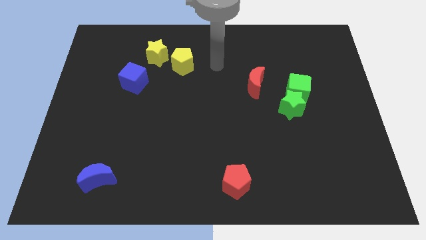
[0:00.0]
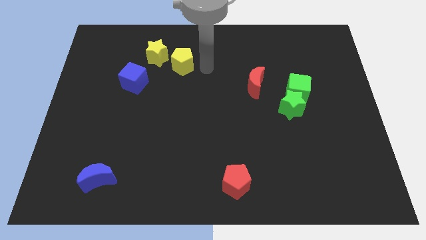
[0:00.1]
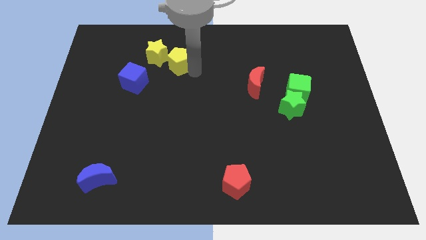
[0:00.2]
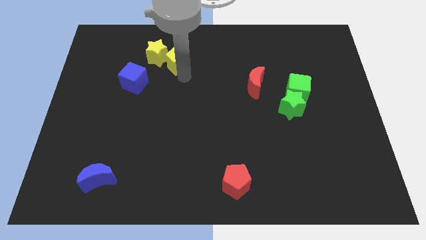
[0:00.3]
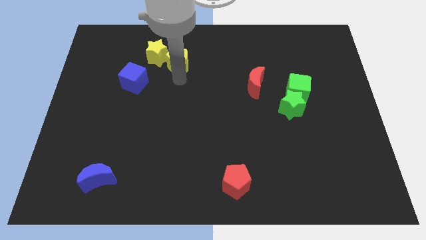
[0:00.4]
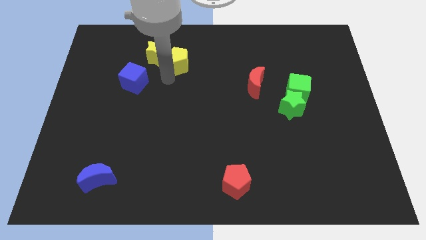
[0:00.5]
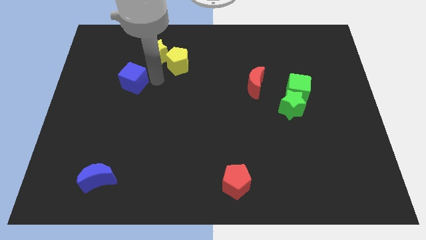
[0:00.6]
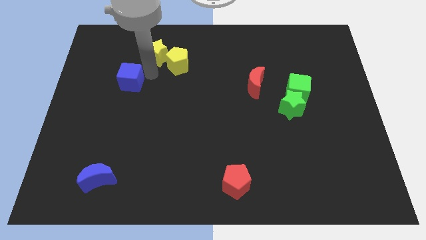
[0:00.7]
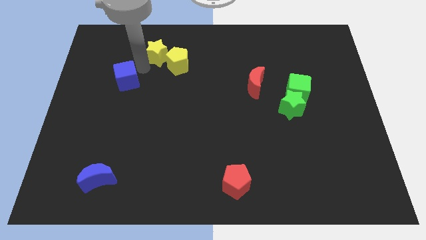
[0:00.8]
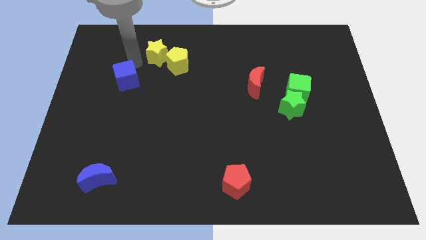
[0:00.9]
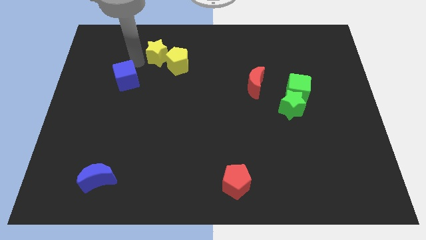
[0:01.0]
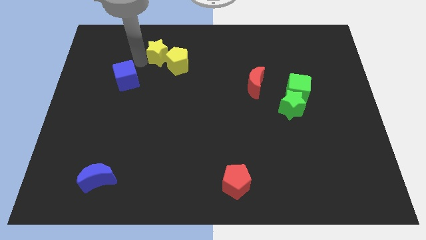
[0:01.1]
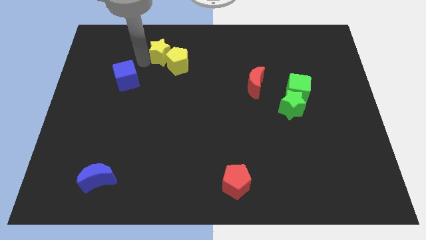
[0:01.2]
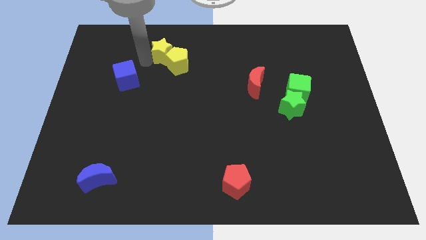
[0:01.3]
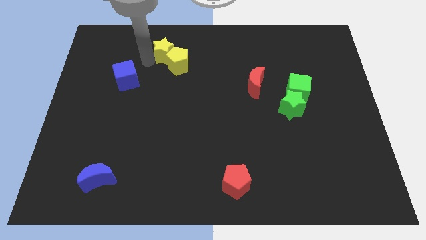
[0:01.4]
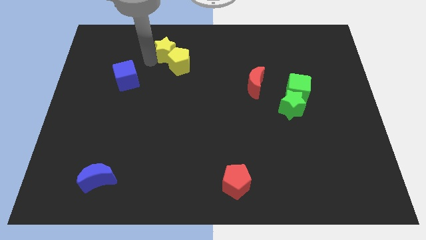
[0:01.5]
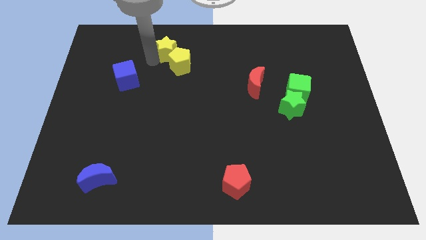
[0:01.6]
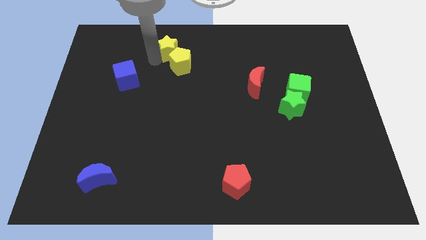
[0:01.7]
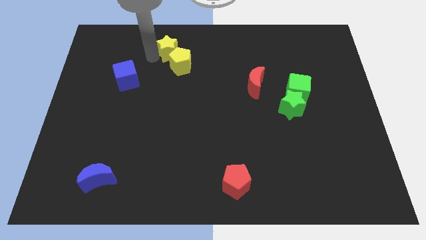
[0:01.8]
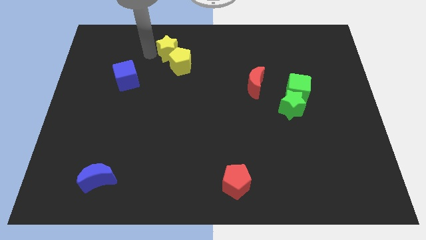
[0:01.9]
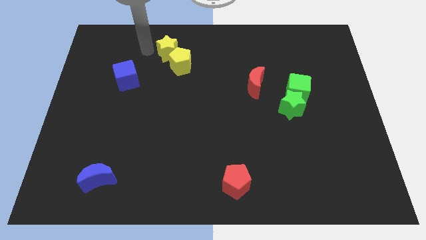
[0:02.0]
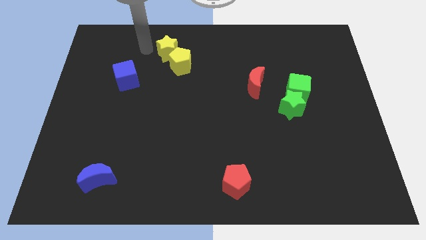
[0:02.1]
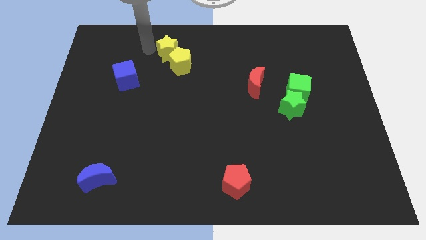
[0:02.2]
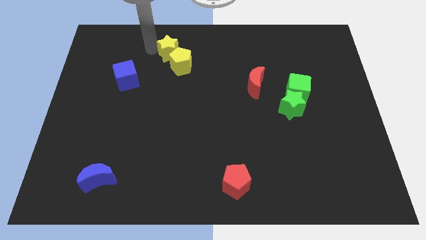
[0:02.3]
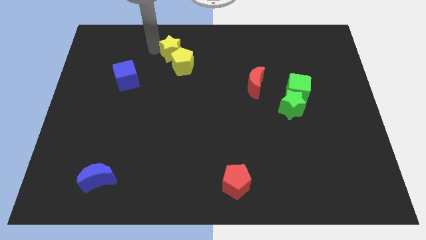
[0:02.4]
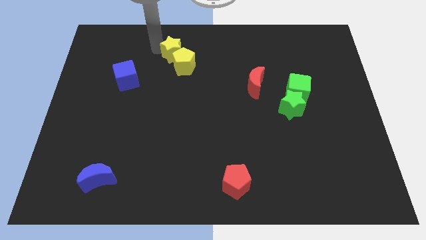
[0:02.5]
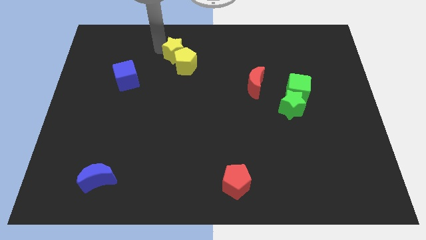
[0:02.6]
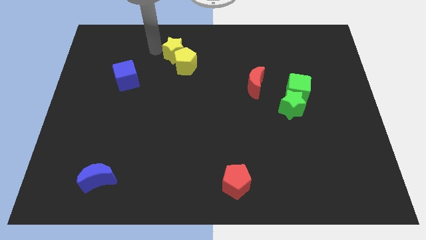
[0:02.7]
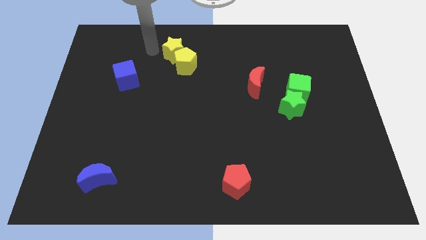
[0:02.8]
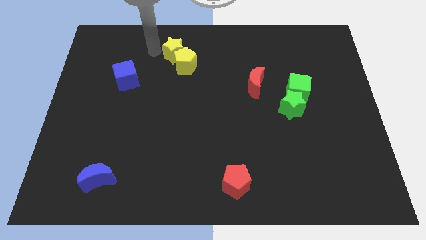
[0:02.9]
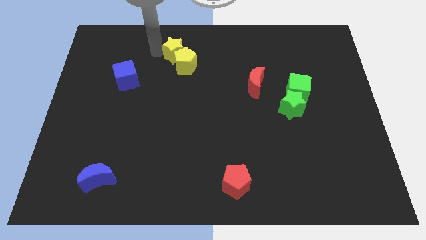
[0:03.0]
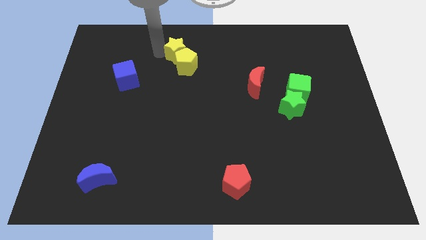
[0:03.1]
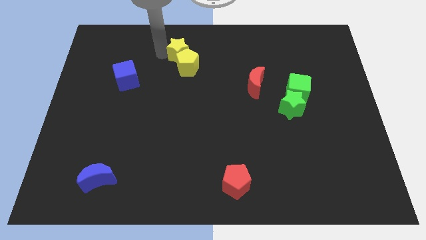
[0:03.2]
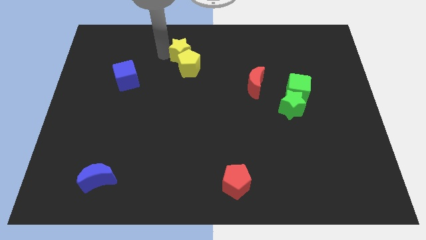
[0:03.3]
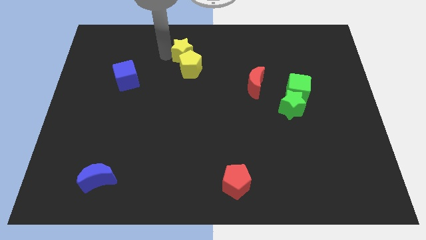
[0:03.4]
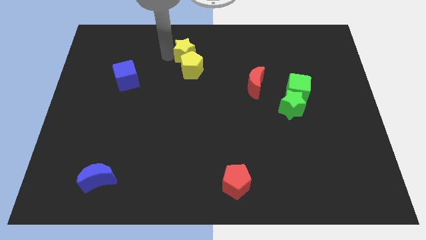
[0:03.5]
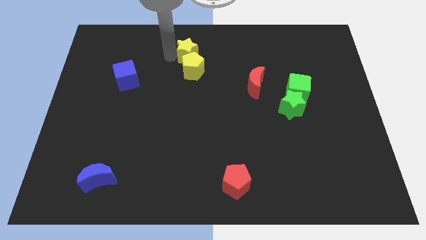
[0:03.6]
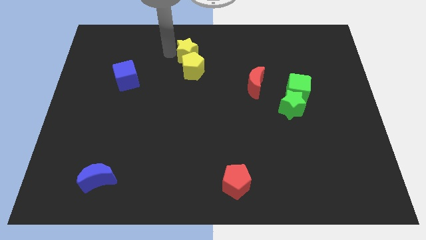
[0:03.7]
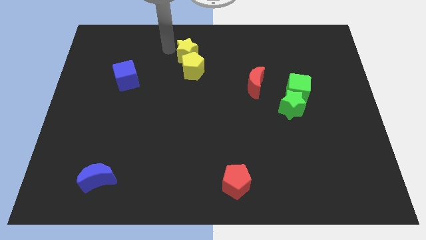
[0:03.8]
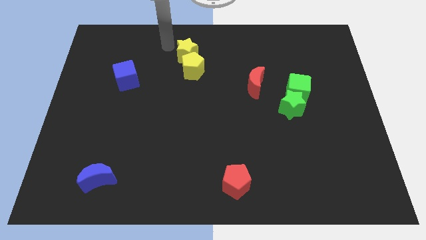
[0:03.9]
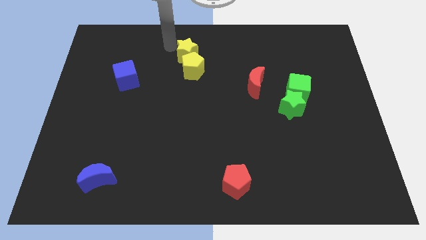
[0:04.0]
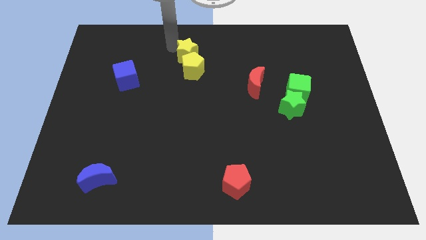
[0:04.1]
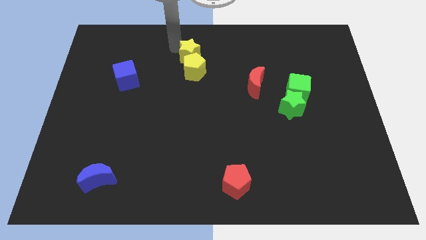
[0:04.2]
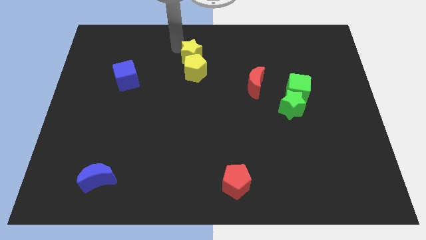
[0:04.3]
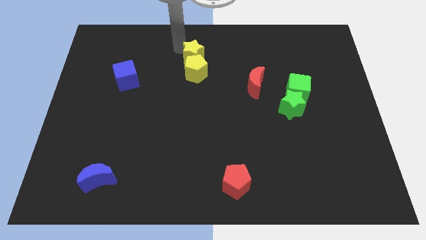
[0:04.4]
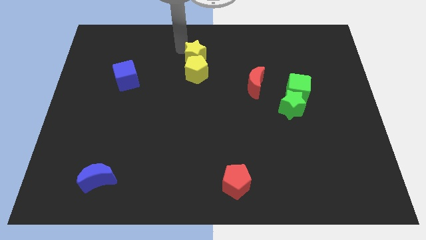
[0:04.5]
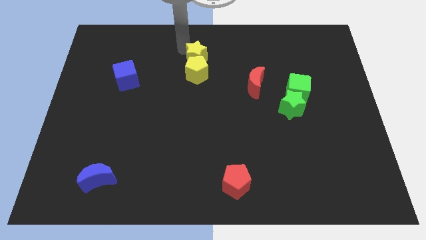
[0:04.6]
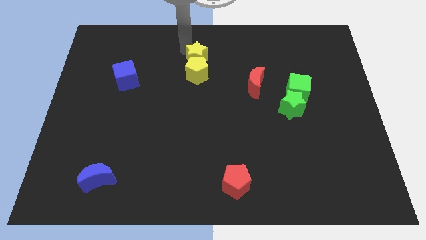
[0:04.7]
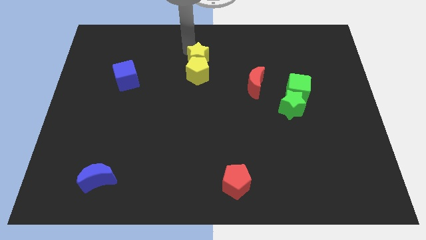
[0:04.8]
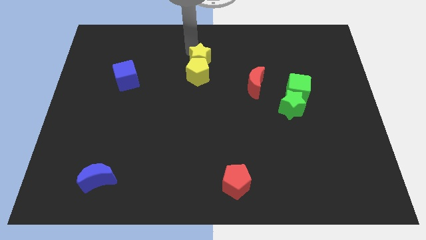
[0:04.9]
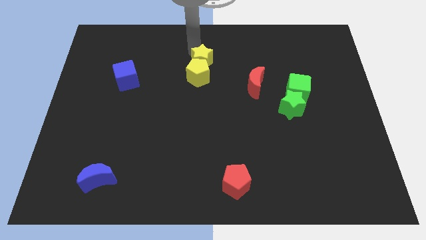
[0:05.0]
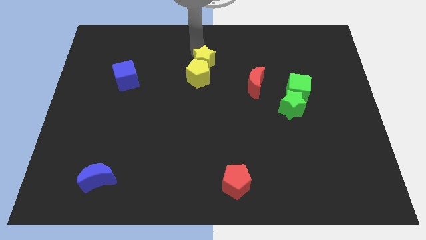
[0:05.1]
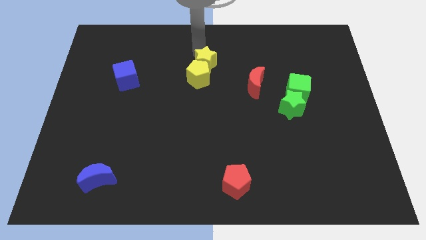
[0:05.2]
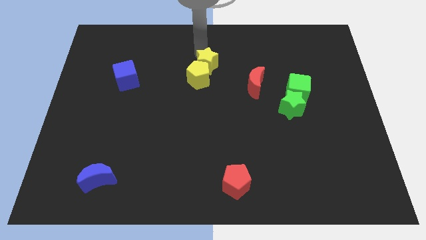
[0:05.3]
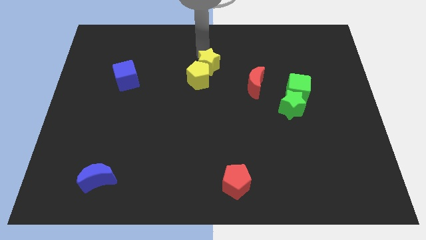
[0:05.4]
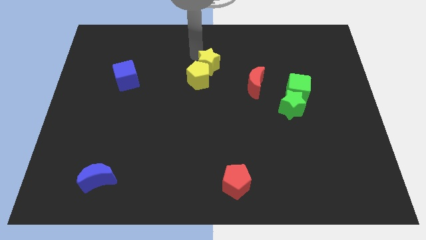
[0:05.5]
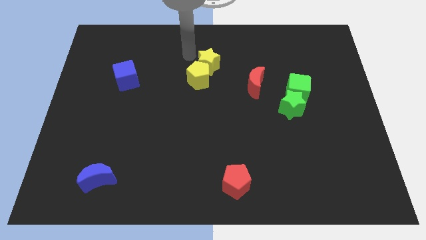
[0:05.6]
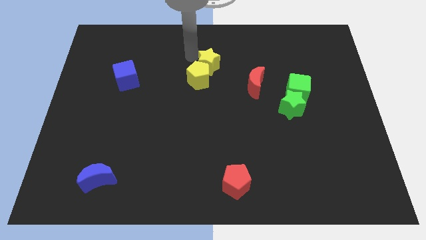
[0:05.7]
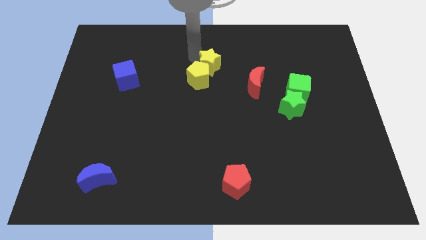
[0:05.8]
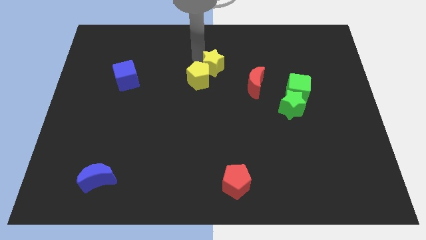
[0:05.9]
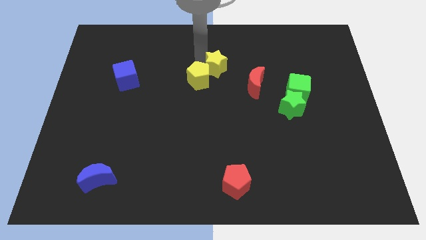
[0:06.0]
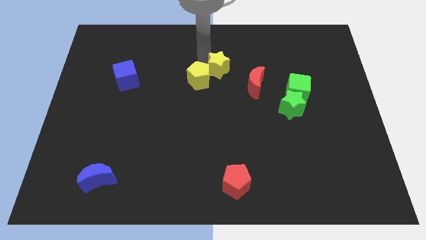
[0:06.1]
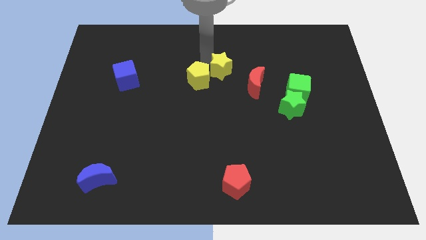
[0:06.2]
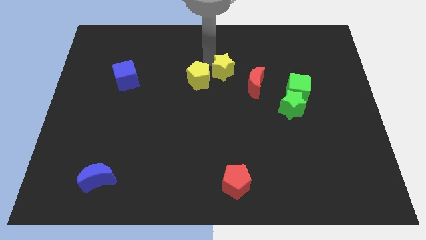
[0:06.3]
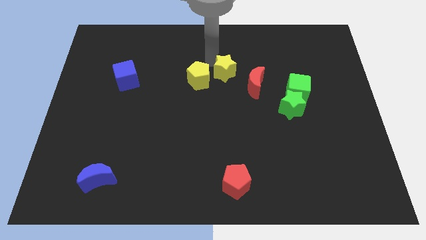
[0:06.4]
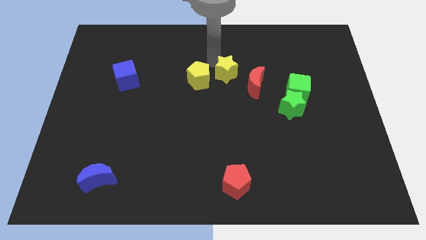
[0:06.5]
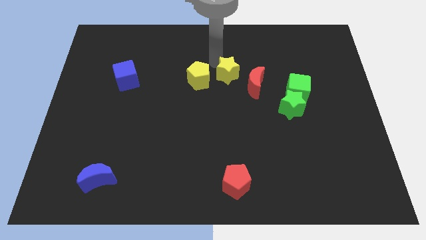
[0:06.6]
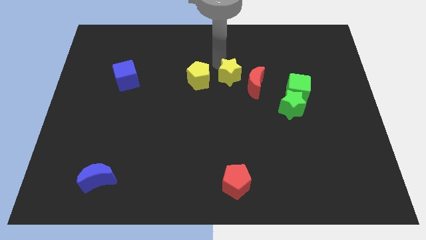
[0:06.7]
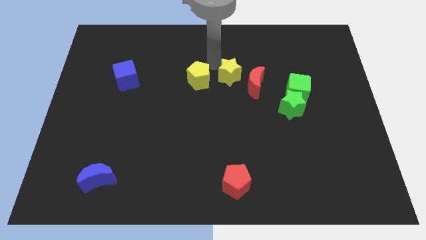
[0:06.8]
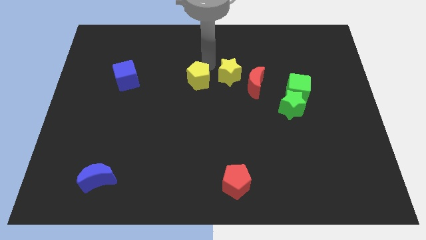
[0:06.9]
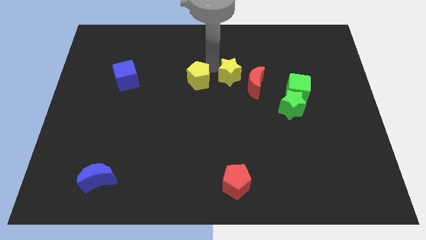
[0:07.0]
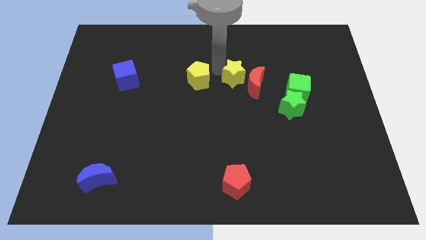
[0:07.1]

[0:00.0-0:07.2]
put the yellow star towards the red moon
